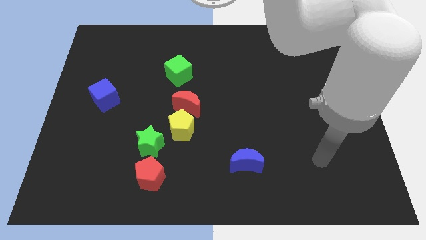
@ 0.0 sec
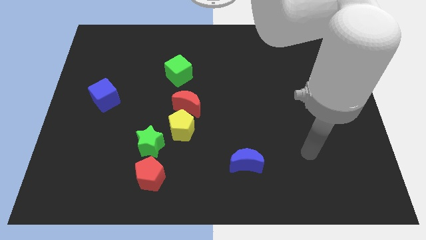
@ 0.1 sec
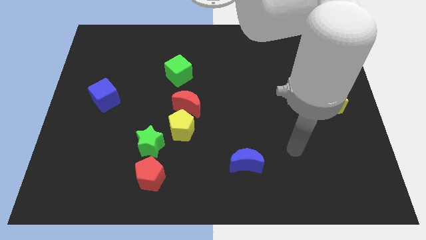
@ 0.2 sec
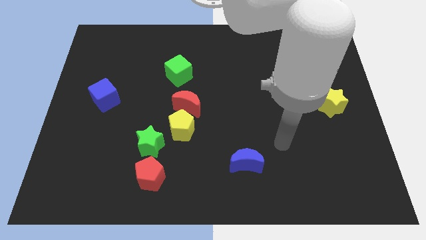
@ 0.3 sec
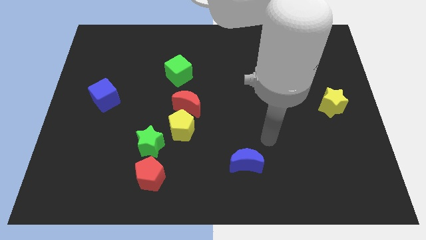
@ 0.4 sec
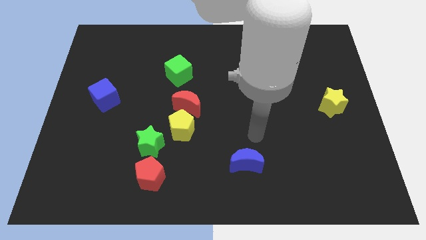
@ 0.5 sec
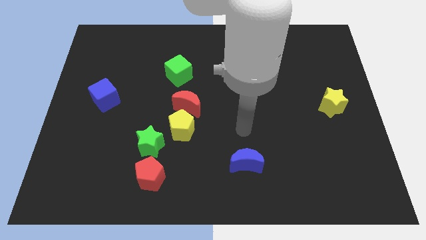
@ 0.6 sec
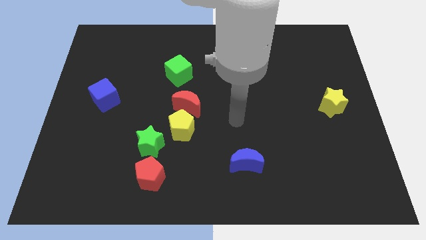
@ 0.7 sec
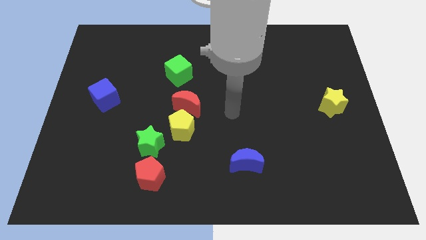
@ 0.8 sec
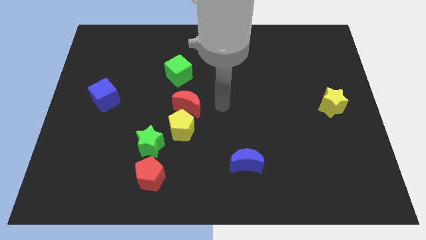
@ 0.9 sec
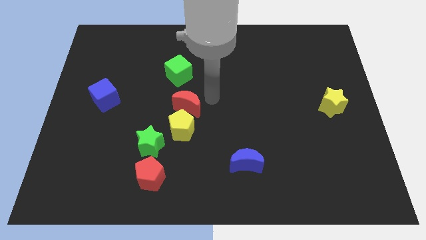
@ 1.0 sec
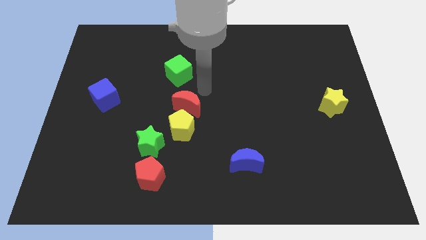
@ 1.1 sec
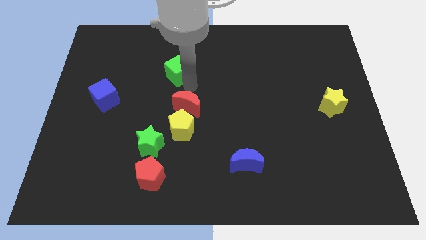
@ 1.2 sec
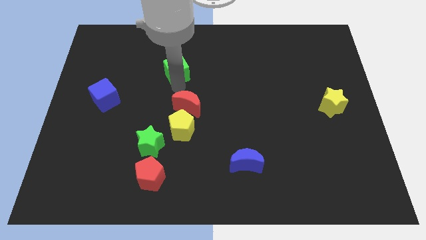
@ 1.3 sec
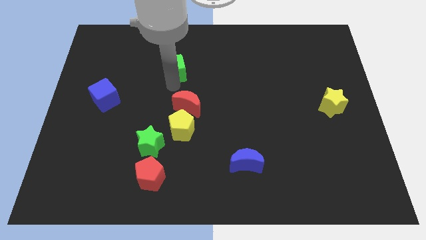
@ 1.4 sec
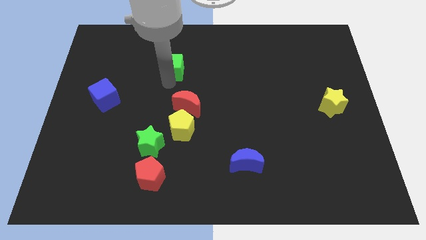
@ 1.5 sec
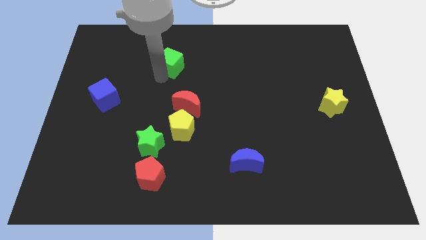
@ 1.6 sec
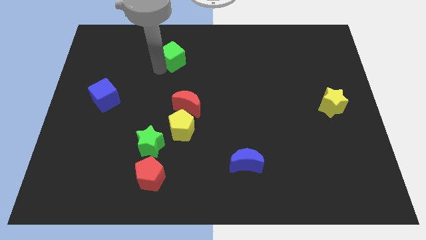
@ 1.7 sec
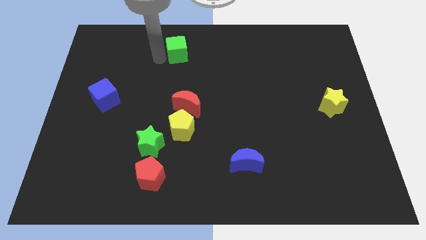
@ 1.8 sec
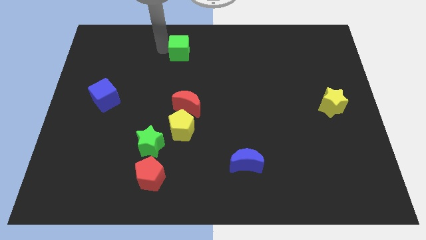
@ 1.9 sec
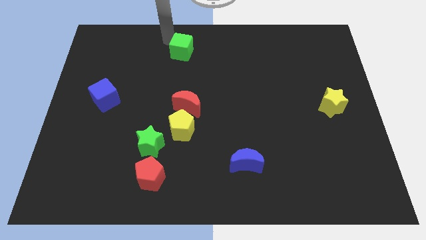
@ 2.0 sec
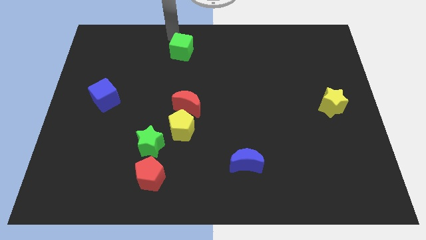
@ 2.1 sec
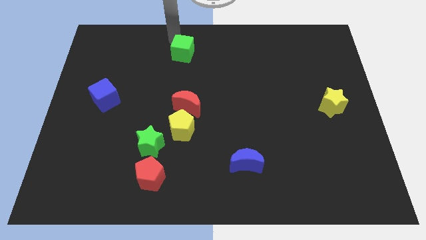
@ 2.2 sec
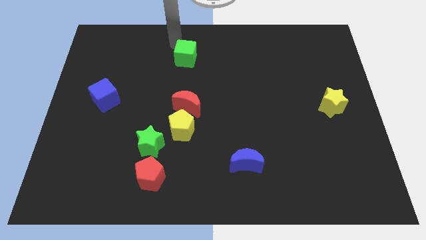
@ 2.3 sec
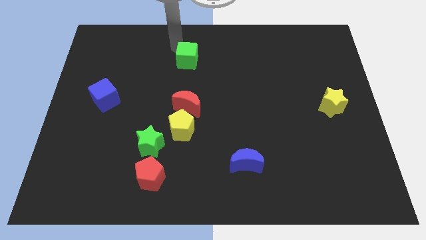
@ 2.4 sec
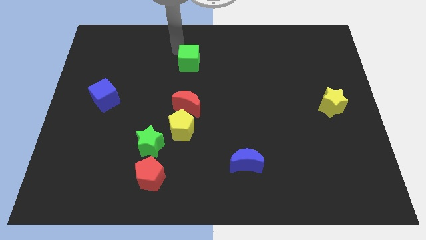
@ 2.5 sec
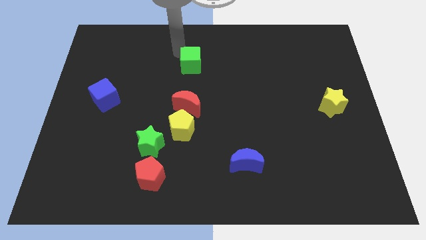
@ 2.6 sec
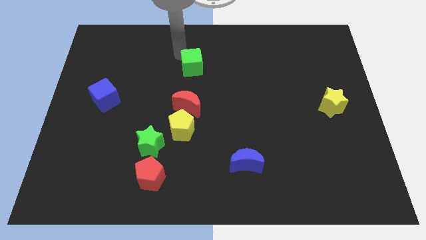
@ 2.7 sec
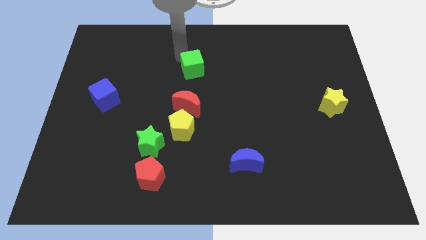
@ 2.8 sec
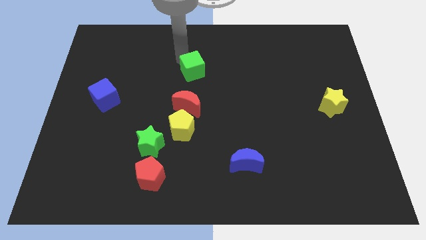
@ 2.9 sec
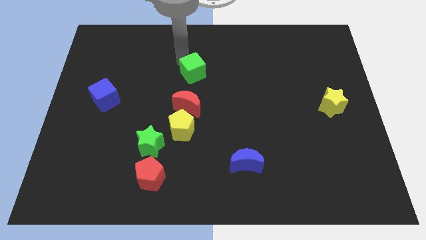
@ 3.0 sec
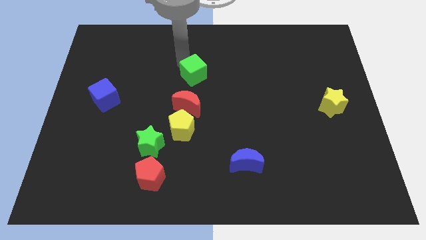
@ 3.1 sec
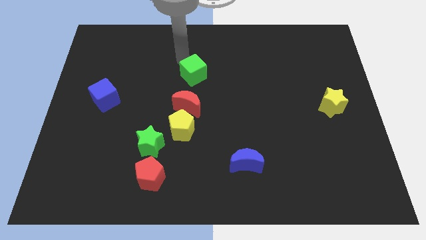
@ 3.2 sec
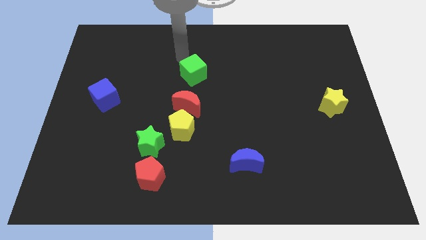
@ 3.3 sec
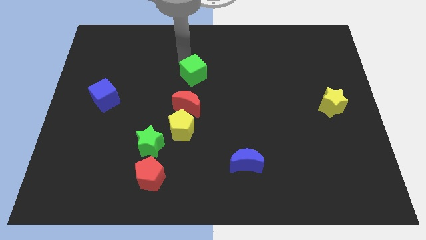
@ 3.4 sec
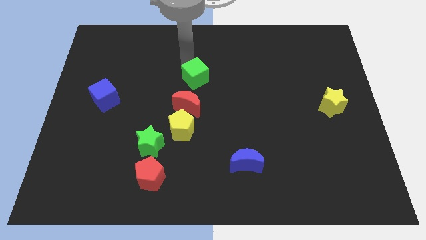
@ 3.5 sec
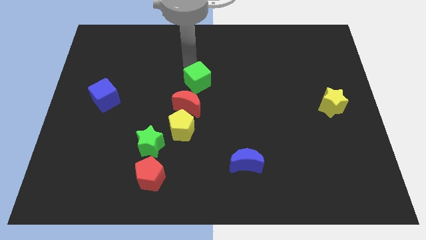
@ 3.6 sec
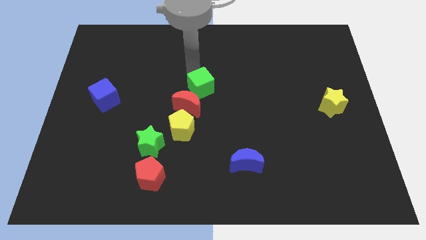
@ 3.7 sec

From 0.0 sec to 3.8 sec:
push the green cube a little downwards and right

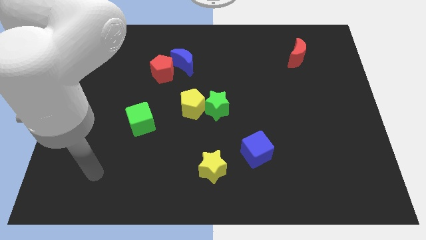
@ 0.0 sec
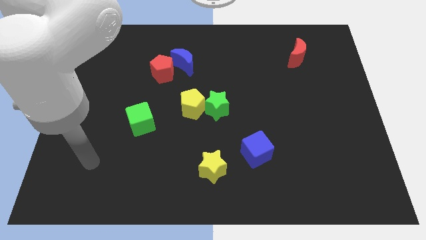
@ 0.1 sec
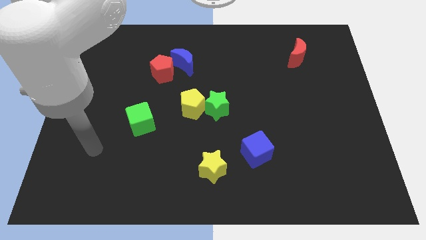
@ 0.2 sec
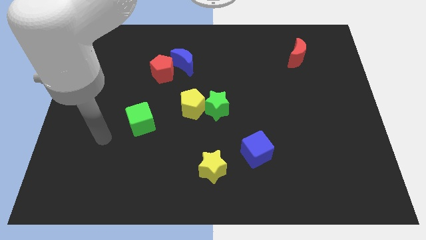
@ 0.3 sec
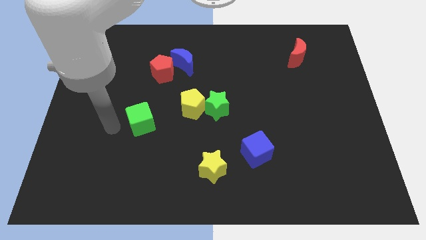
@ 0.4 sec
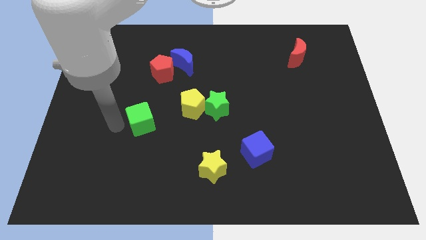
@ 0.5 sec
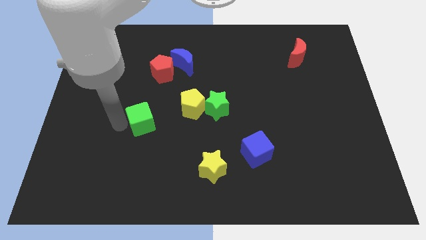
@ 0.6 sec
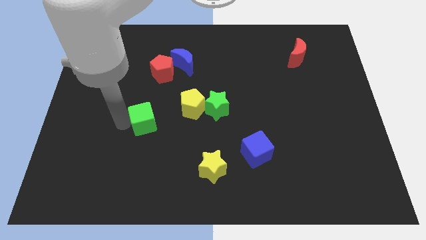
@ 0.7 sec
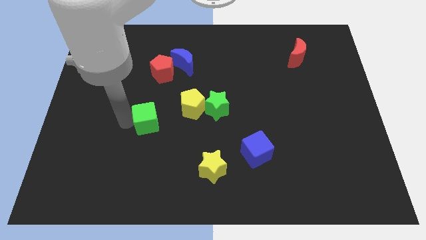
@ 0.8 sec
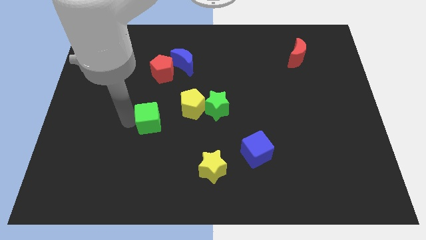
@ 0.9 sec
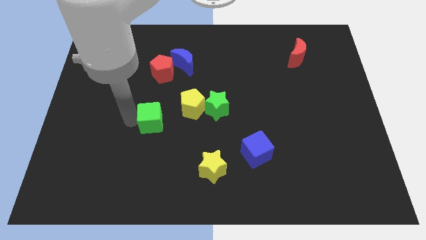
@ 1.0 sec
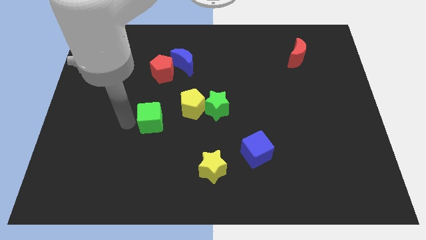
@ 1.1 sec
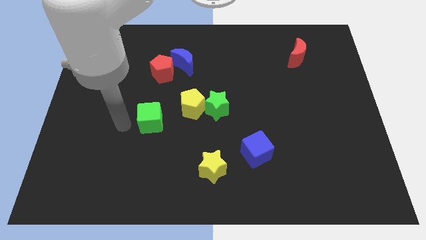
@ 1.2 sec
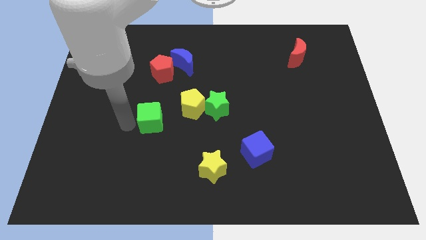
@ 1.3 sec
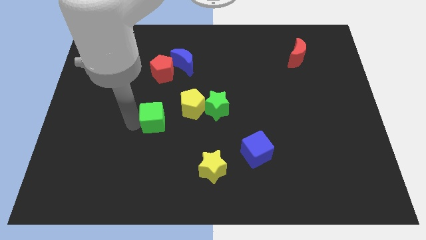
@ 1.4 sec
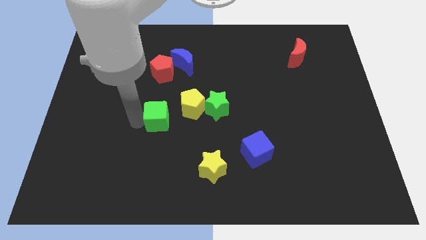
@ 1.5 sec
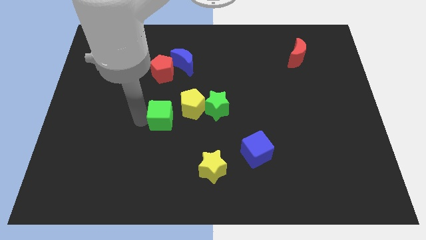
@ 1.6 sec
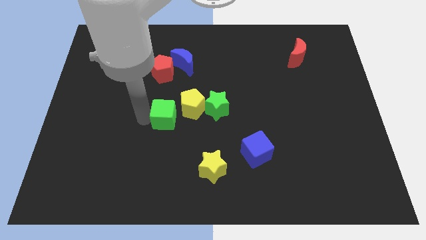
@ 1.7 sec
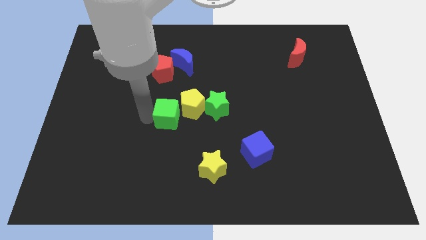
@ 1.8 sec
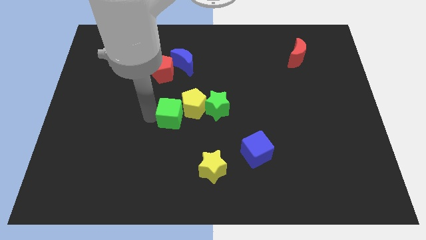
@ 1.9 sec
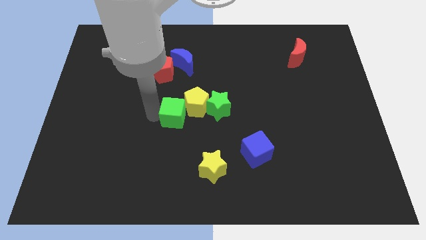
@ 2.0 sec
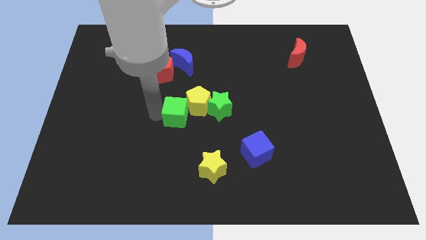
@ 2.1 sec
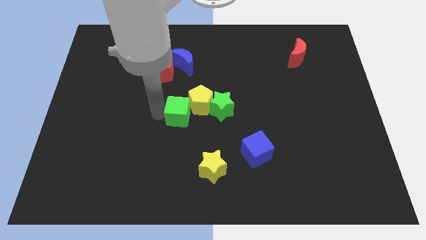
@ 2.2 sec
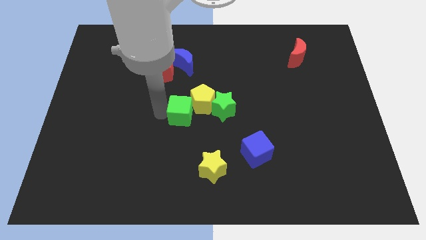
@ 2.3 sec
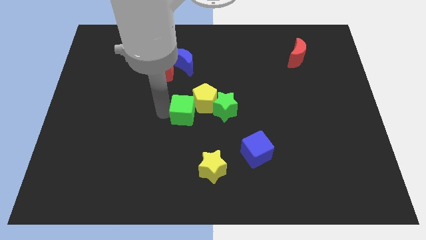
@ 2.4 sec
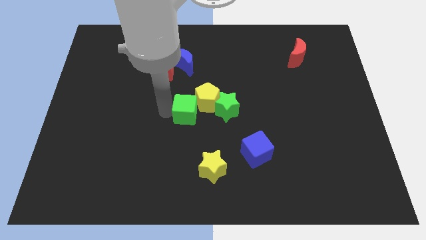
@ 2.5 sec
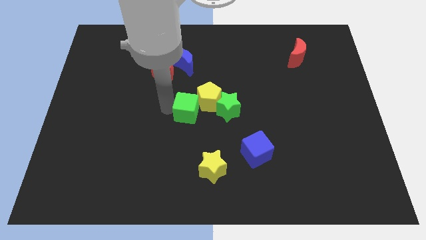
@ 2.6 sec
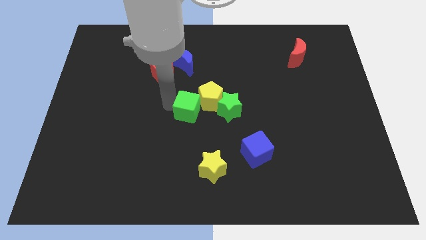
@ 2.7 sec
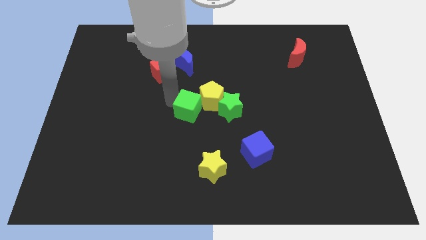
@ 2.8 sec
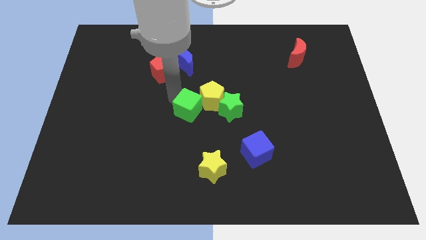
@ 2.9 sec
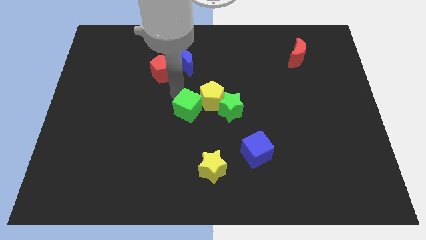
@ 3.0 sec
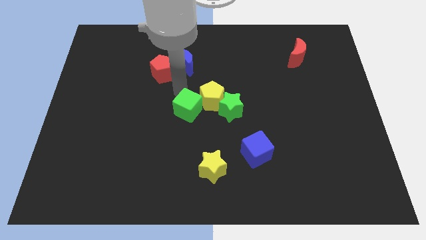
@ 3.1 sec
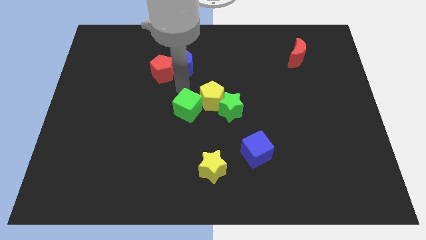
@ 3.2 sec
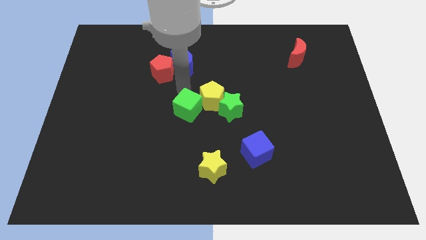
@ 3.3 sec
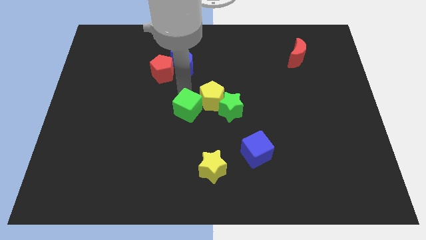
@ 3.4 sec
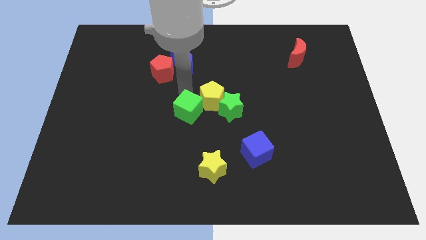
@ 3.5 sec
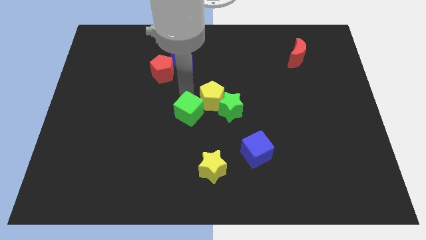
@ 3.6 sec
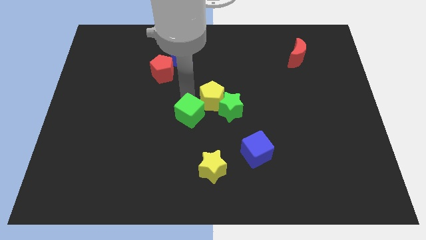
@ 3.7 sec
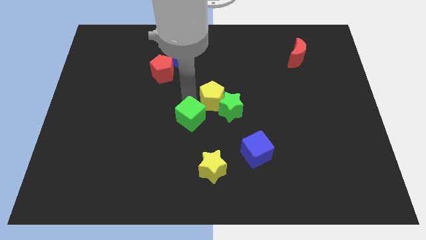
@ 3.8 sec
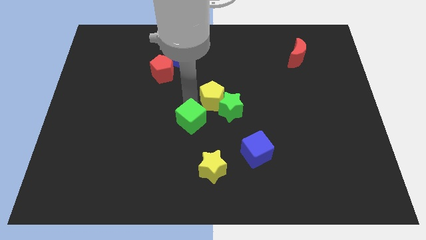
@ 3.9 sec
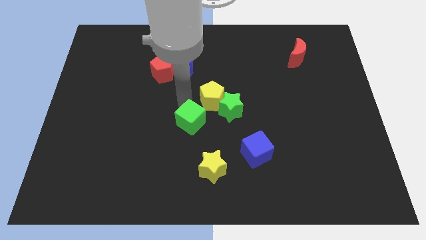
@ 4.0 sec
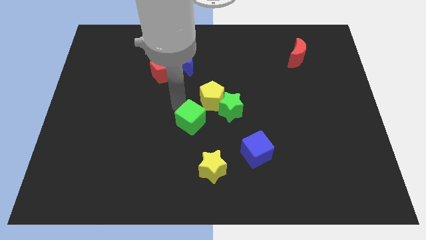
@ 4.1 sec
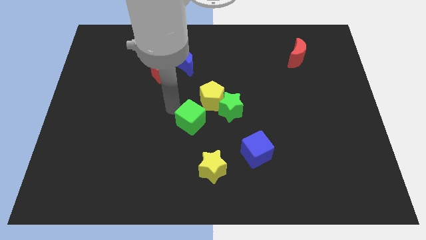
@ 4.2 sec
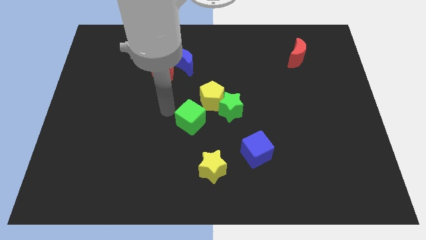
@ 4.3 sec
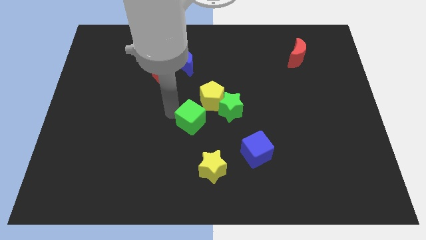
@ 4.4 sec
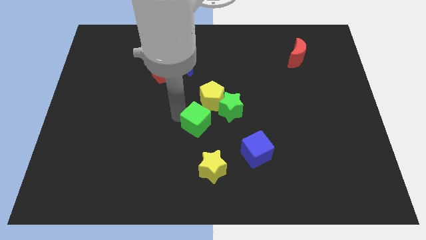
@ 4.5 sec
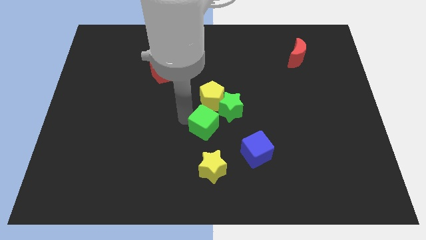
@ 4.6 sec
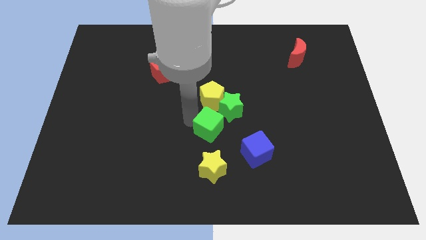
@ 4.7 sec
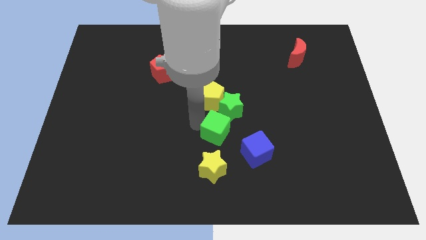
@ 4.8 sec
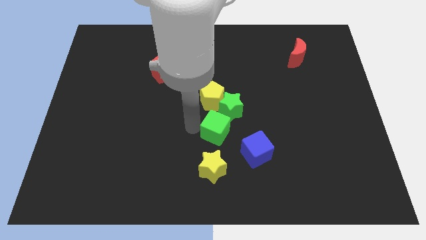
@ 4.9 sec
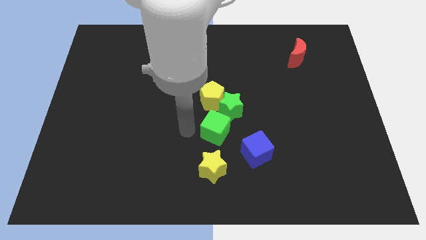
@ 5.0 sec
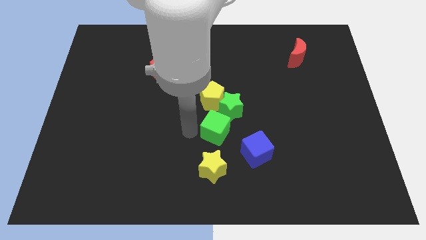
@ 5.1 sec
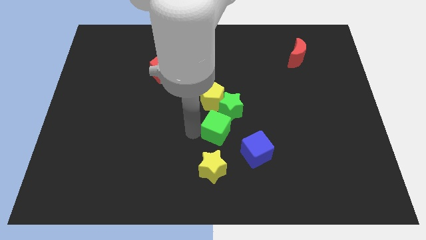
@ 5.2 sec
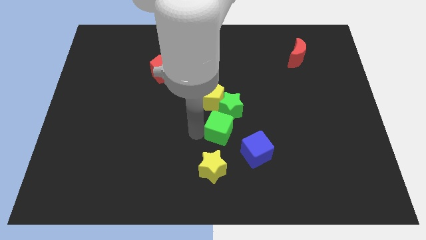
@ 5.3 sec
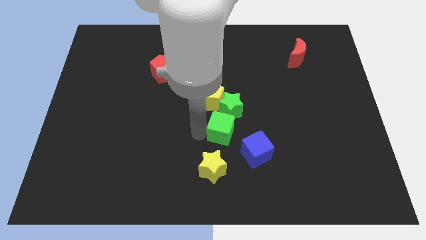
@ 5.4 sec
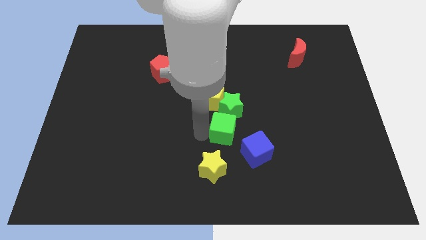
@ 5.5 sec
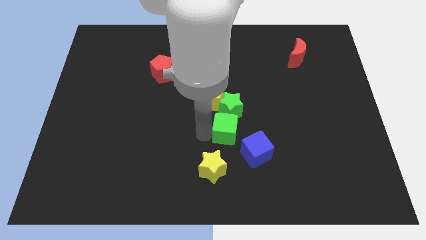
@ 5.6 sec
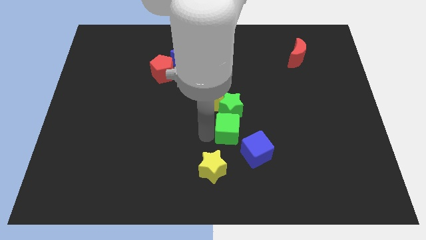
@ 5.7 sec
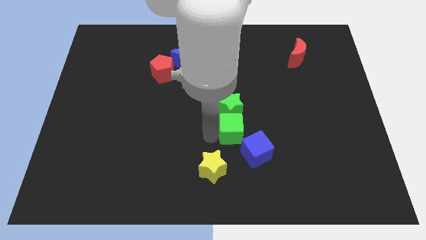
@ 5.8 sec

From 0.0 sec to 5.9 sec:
move the green cube right
